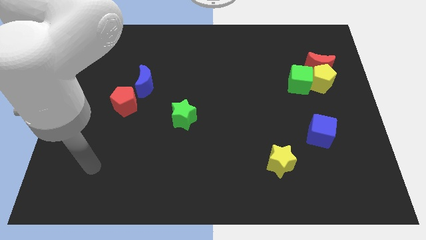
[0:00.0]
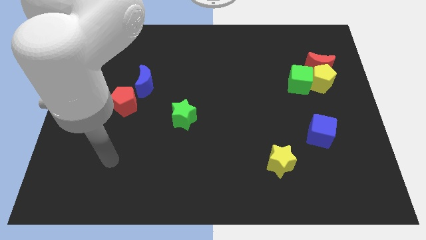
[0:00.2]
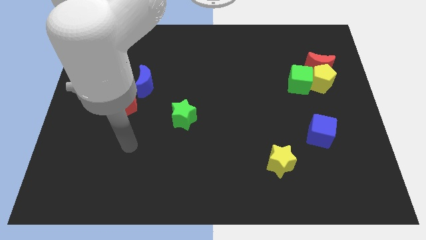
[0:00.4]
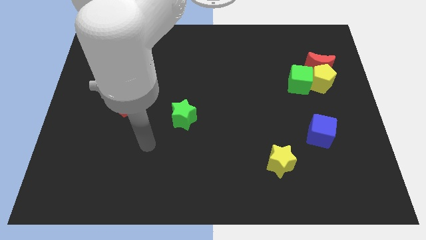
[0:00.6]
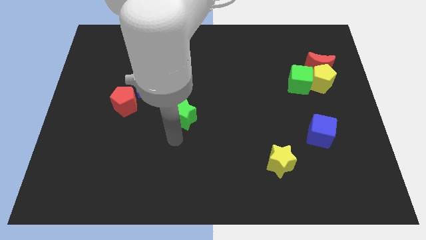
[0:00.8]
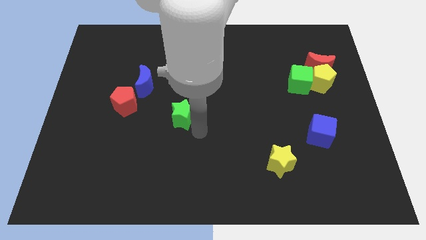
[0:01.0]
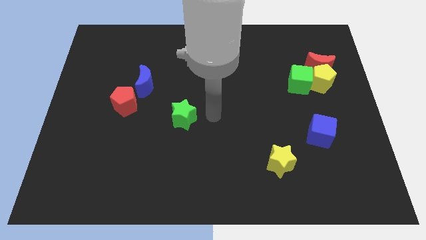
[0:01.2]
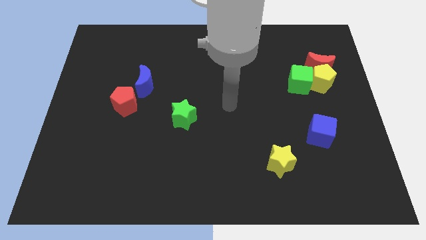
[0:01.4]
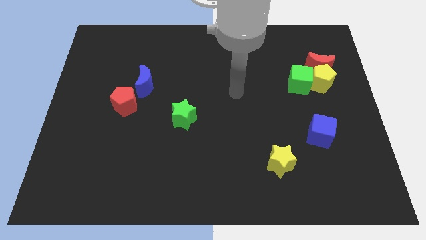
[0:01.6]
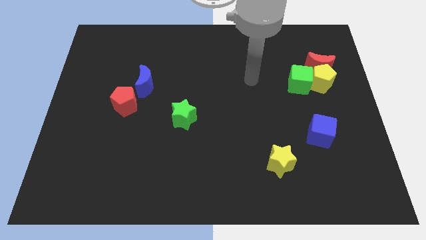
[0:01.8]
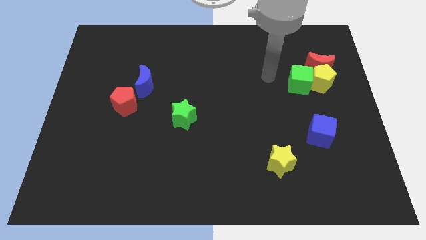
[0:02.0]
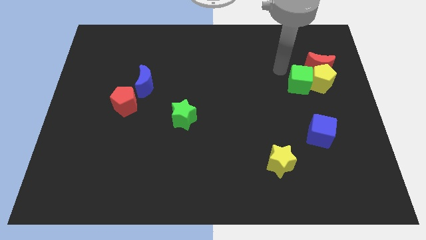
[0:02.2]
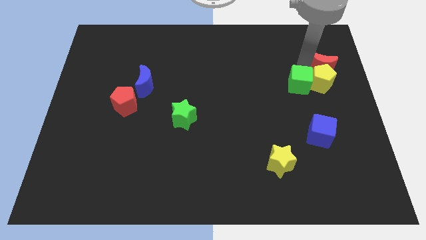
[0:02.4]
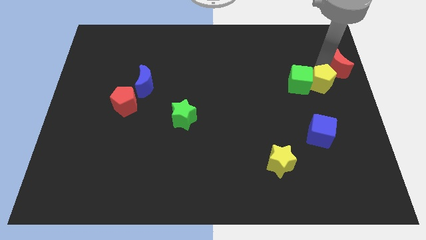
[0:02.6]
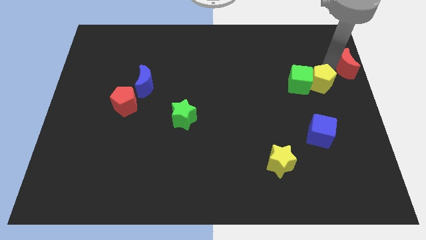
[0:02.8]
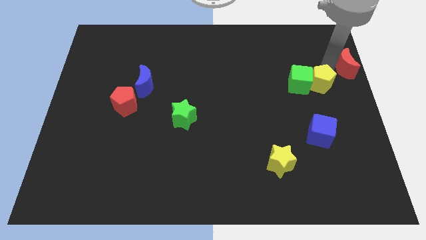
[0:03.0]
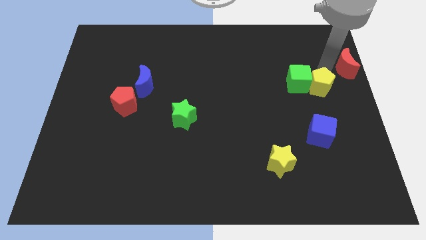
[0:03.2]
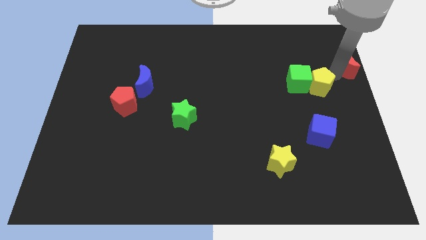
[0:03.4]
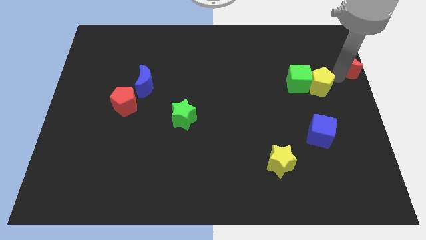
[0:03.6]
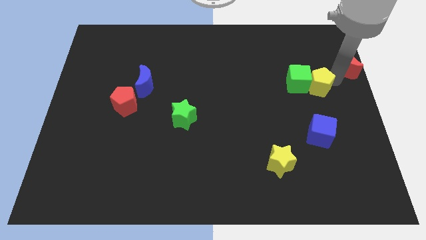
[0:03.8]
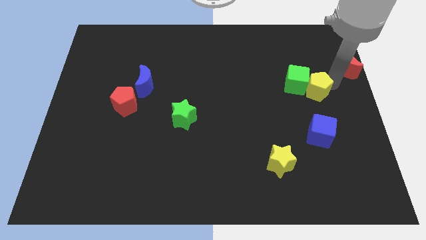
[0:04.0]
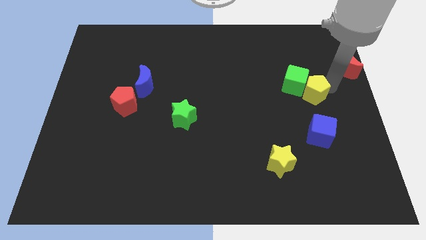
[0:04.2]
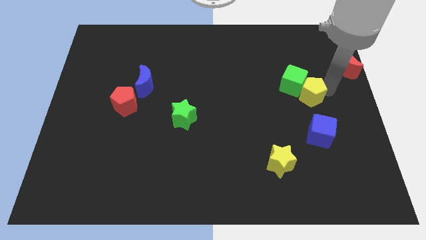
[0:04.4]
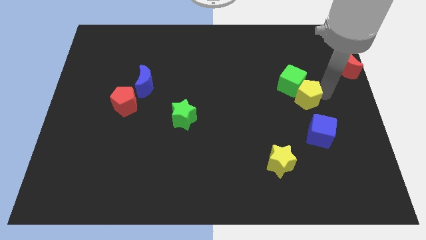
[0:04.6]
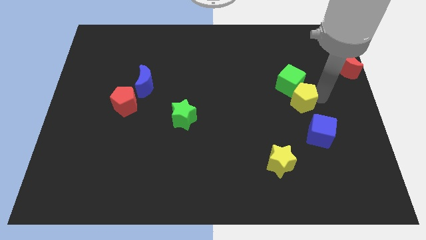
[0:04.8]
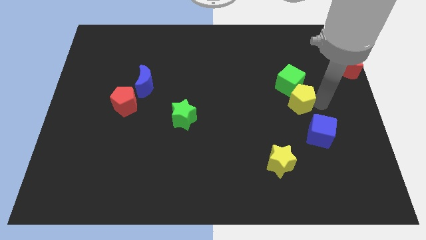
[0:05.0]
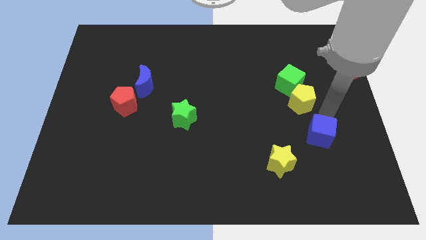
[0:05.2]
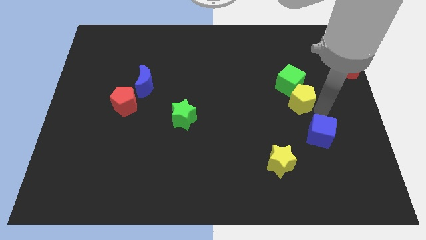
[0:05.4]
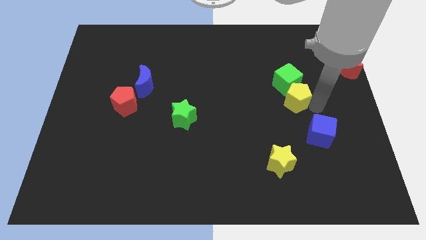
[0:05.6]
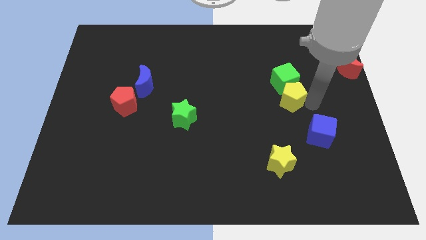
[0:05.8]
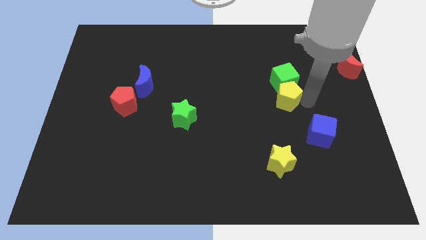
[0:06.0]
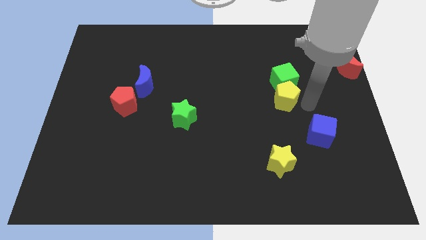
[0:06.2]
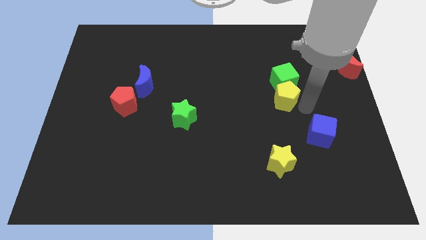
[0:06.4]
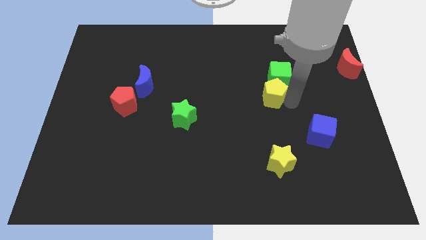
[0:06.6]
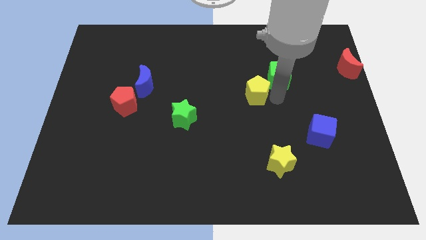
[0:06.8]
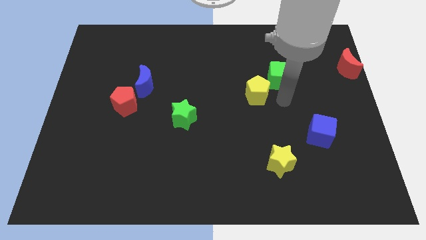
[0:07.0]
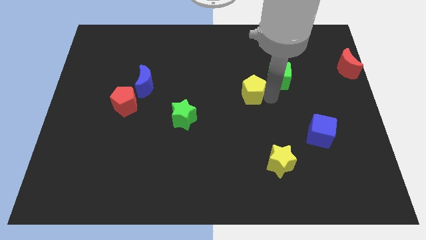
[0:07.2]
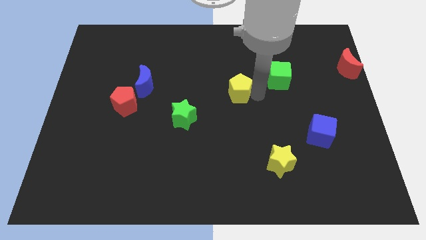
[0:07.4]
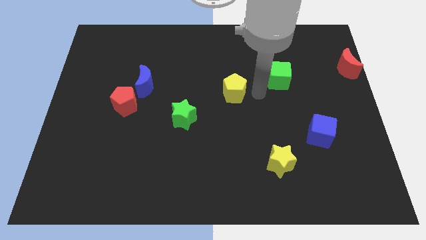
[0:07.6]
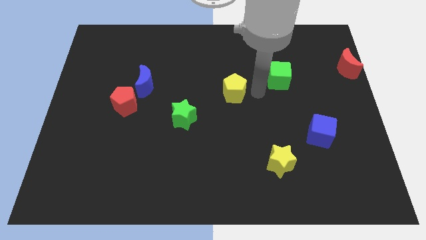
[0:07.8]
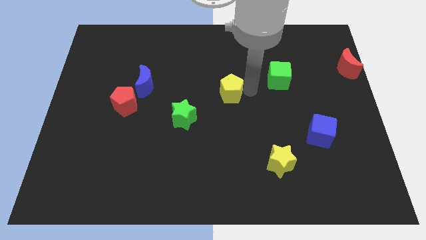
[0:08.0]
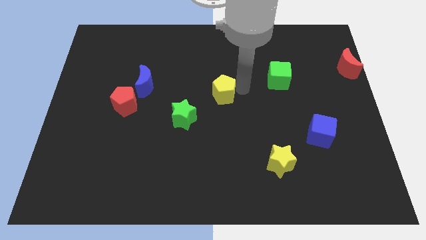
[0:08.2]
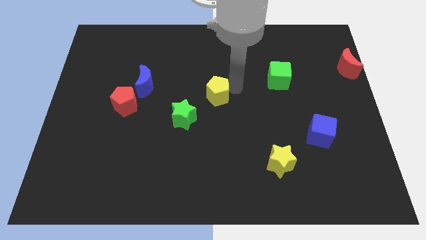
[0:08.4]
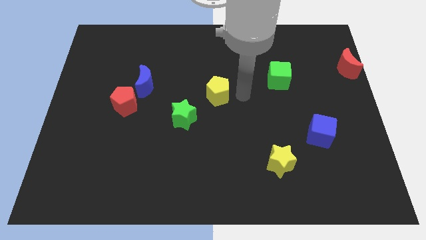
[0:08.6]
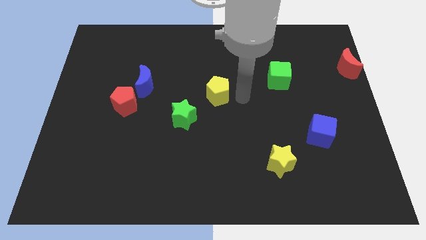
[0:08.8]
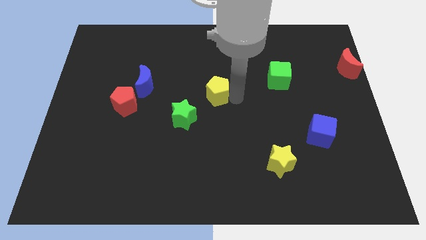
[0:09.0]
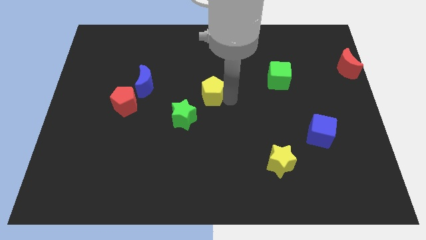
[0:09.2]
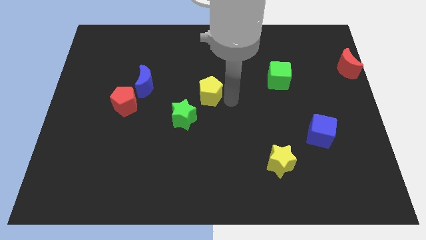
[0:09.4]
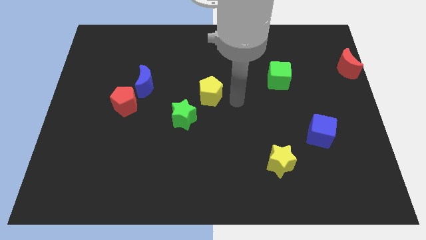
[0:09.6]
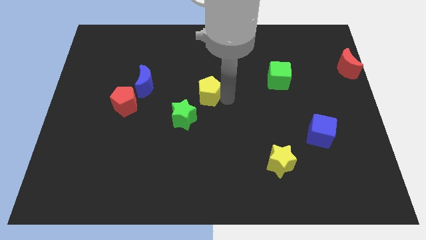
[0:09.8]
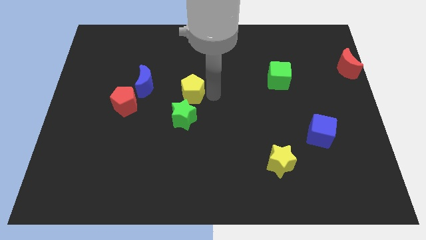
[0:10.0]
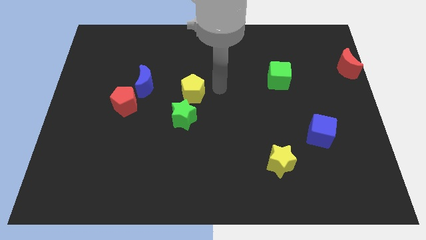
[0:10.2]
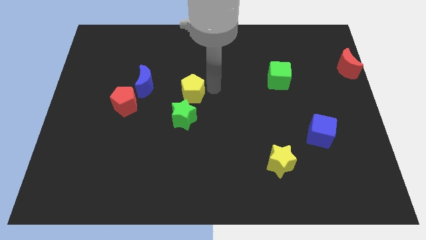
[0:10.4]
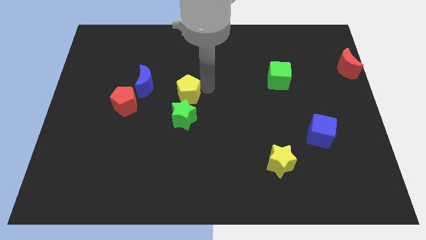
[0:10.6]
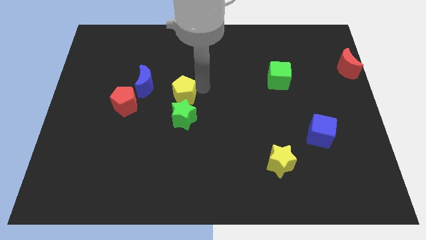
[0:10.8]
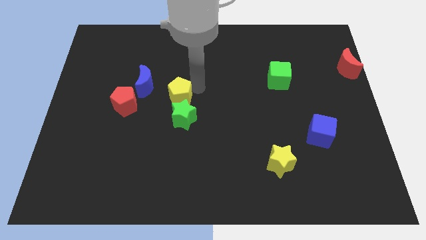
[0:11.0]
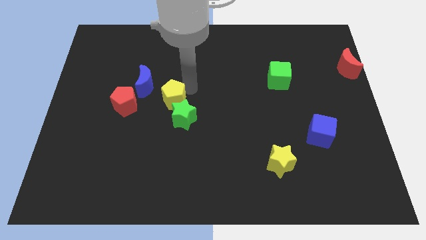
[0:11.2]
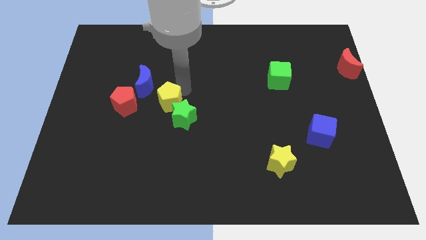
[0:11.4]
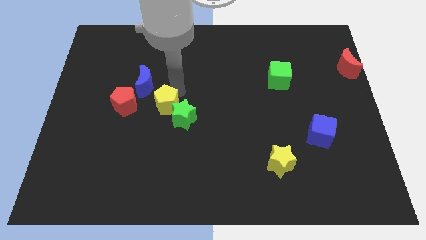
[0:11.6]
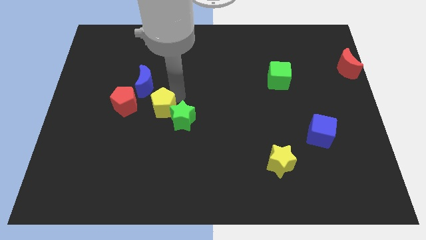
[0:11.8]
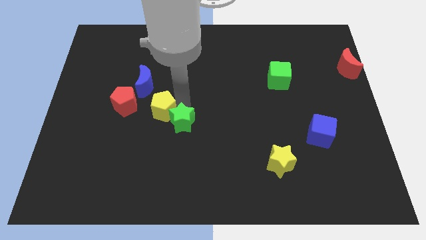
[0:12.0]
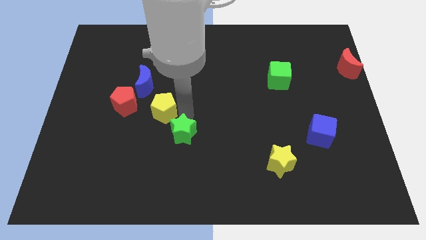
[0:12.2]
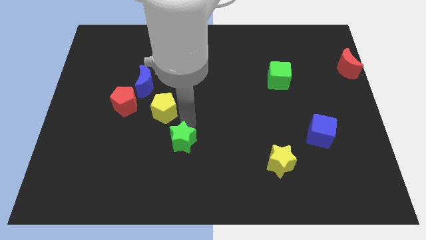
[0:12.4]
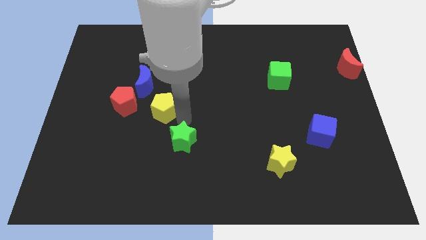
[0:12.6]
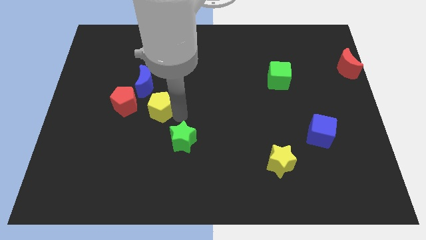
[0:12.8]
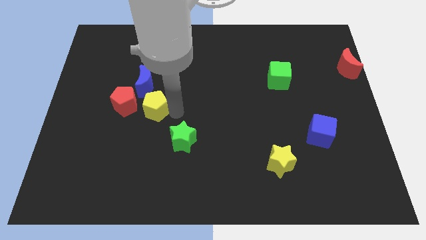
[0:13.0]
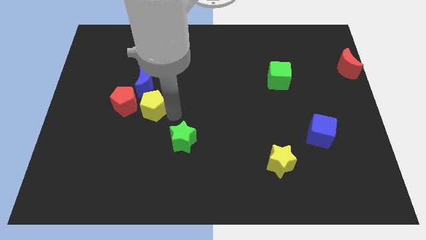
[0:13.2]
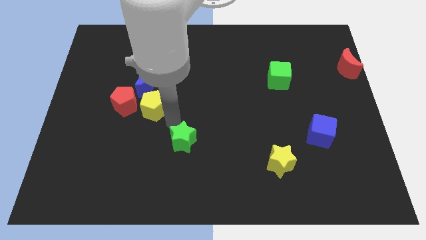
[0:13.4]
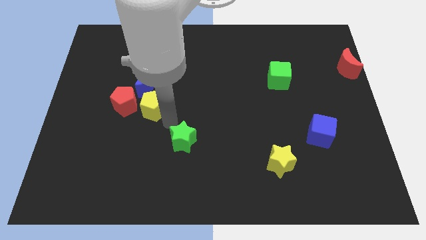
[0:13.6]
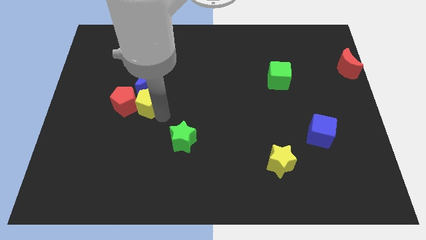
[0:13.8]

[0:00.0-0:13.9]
slide the yellow pentagon to the red pentagon

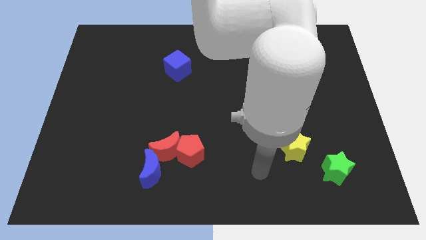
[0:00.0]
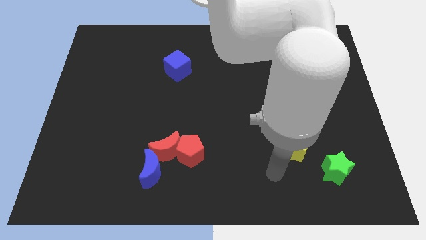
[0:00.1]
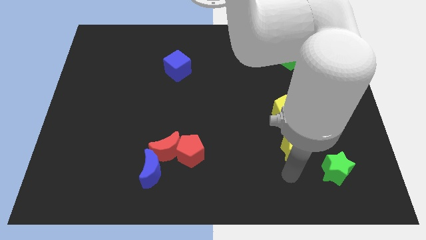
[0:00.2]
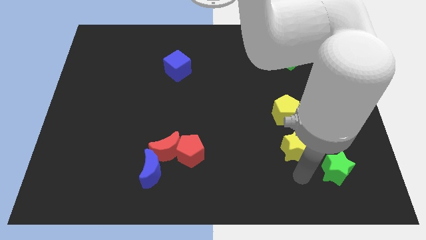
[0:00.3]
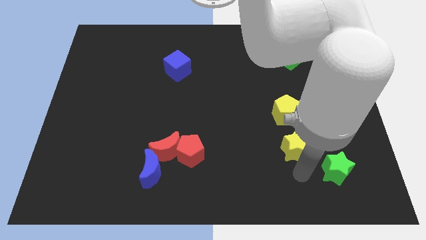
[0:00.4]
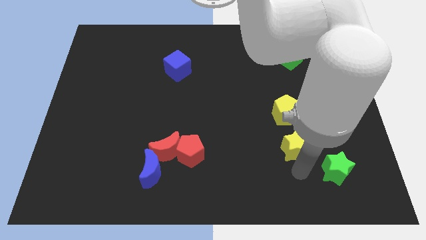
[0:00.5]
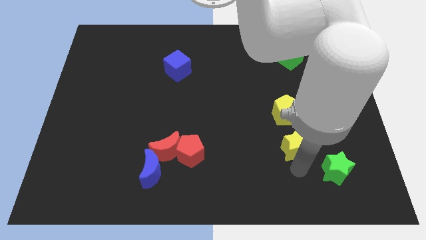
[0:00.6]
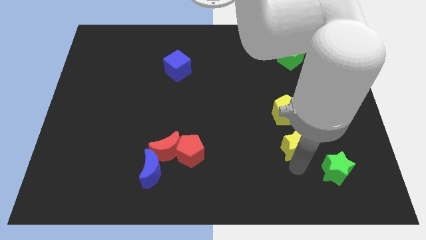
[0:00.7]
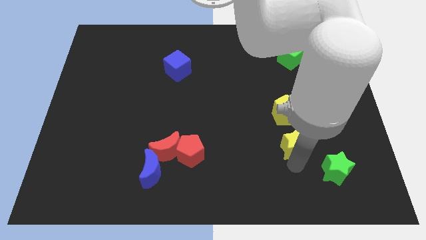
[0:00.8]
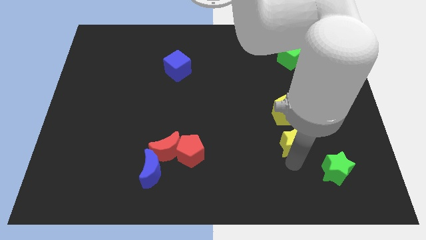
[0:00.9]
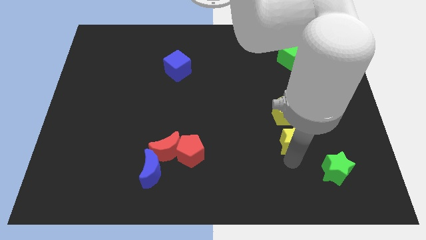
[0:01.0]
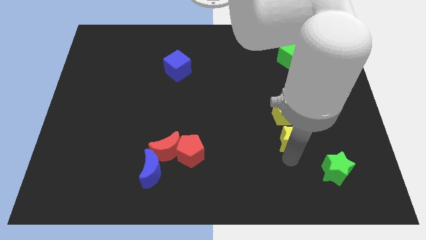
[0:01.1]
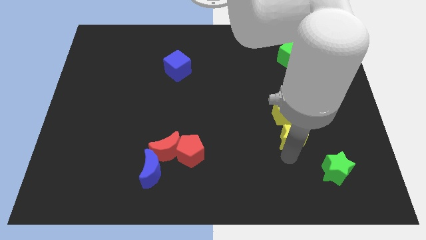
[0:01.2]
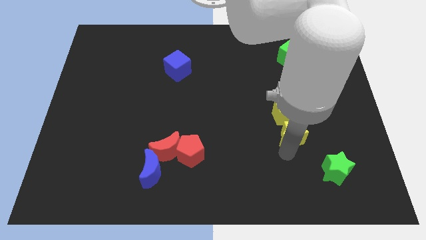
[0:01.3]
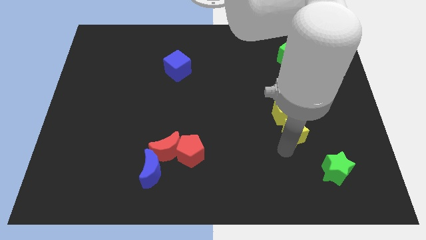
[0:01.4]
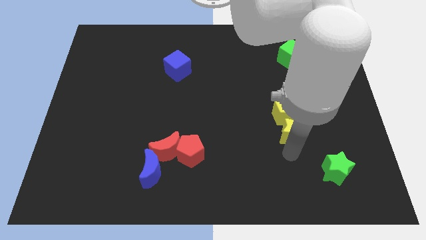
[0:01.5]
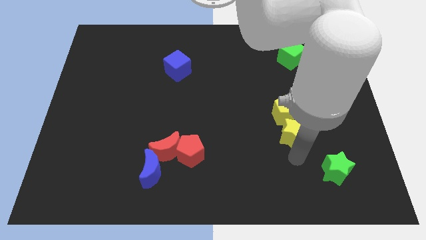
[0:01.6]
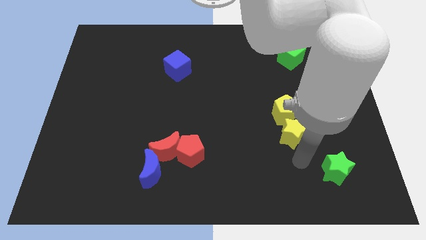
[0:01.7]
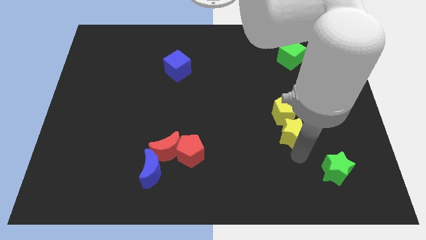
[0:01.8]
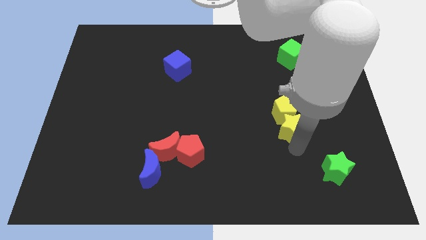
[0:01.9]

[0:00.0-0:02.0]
push the yellow star towards the yellow pentagon
